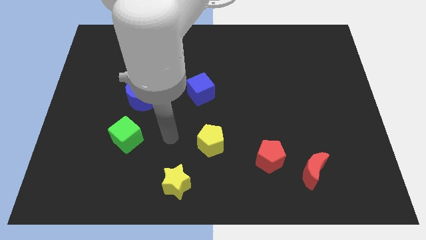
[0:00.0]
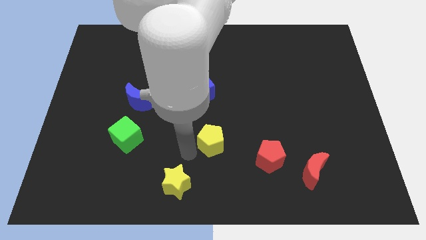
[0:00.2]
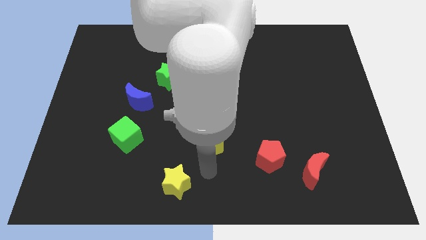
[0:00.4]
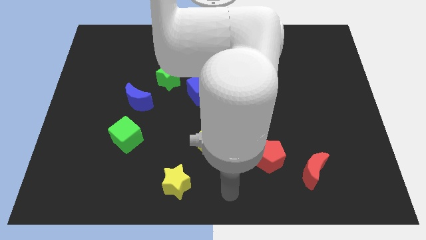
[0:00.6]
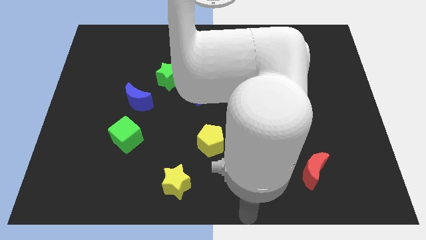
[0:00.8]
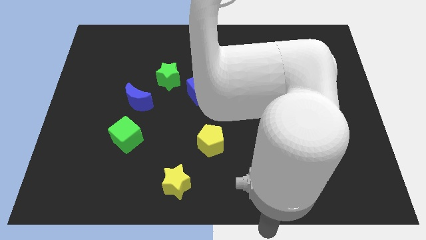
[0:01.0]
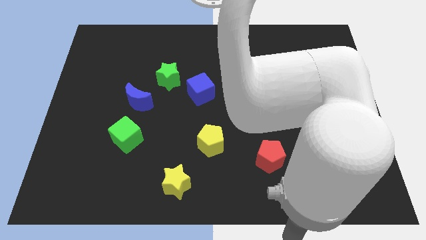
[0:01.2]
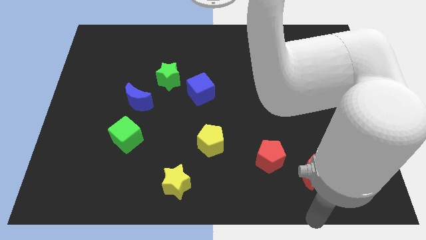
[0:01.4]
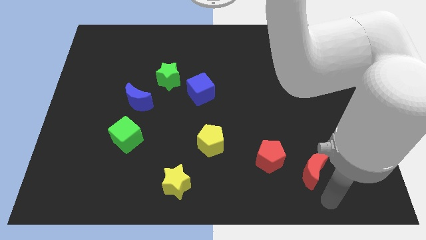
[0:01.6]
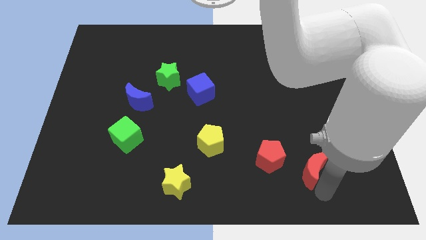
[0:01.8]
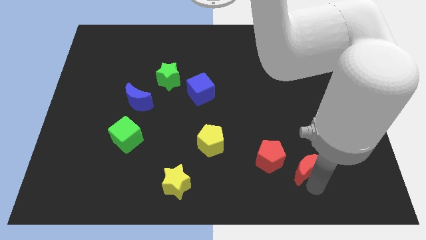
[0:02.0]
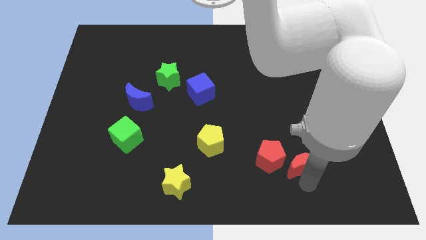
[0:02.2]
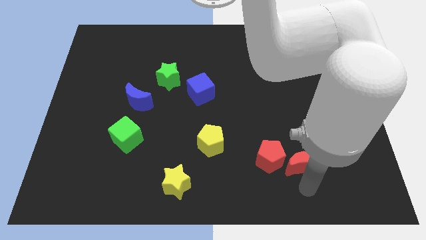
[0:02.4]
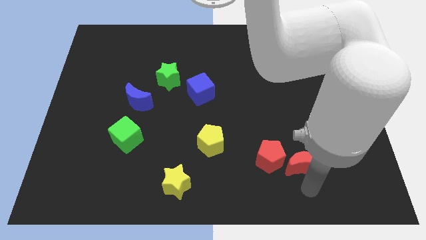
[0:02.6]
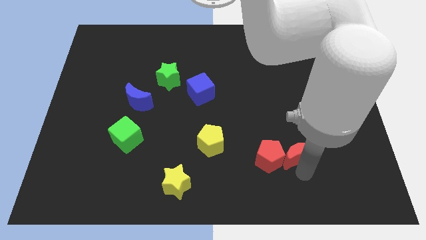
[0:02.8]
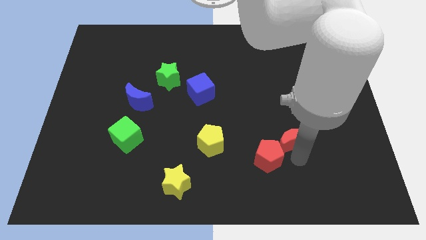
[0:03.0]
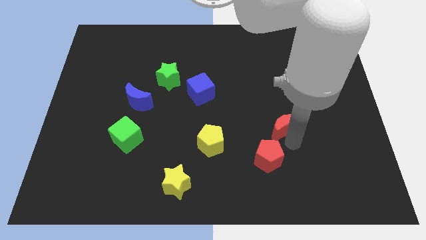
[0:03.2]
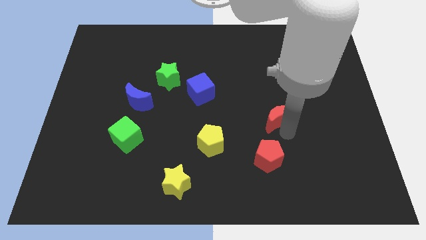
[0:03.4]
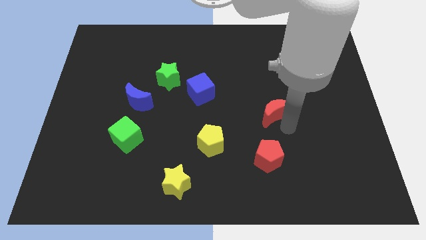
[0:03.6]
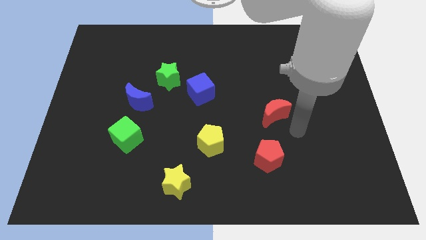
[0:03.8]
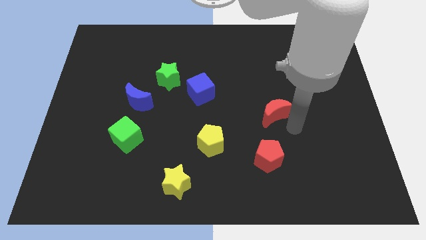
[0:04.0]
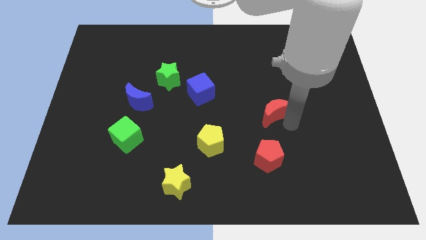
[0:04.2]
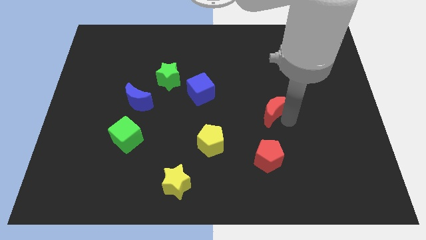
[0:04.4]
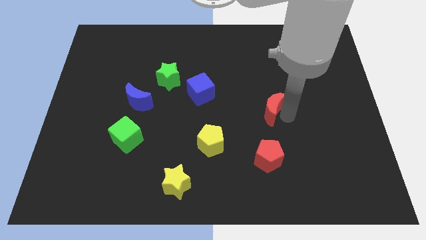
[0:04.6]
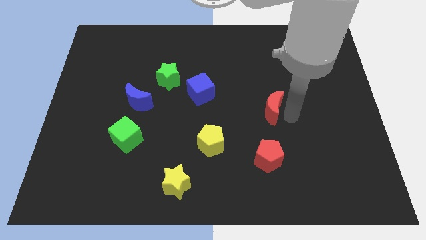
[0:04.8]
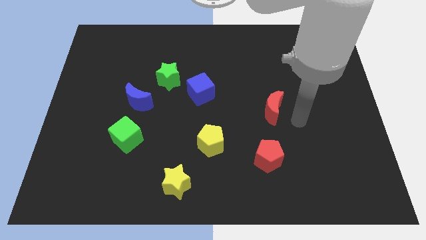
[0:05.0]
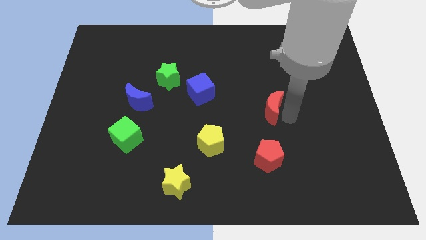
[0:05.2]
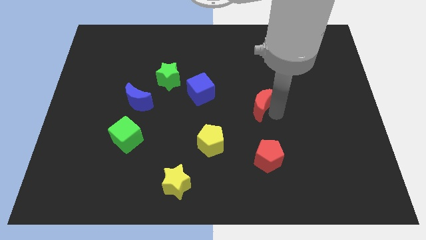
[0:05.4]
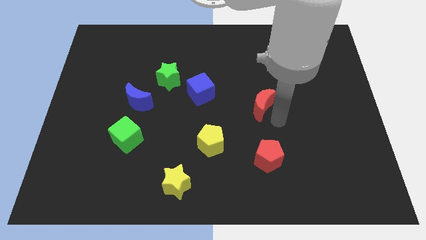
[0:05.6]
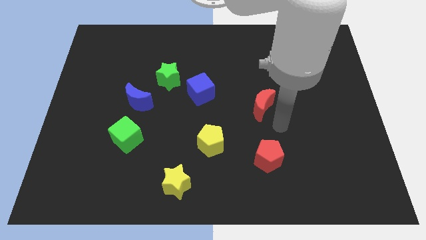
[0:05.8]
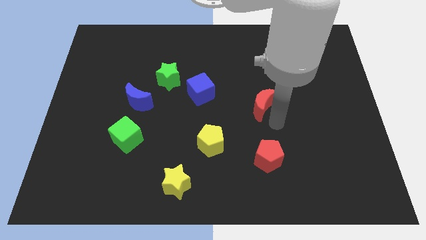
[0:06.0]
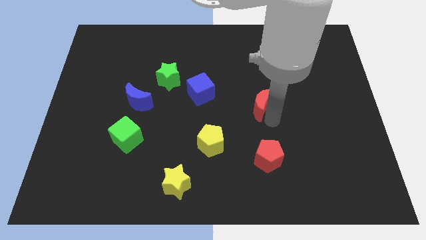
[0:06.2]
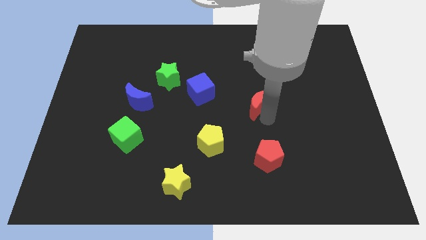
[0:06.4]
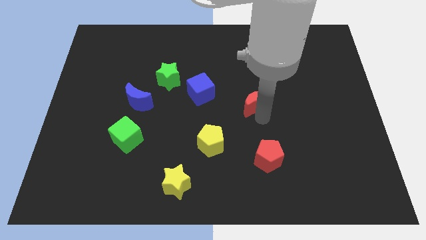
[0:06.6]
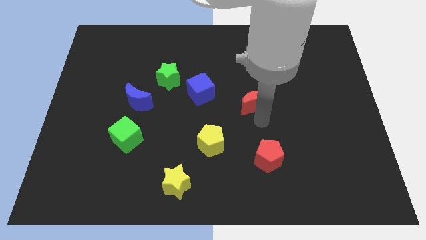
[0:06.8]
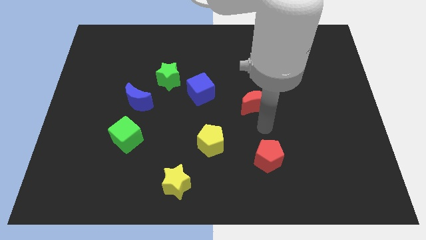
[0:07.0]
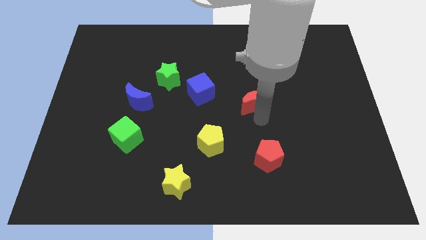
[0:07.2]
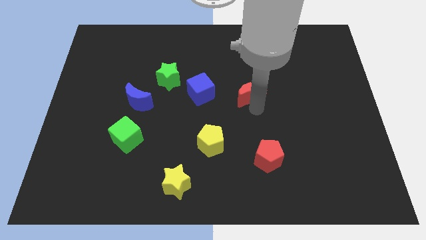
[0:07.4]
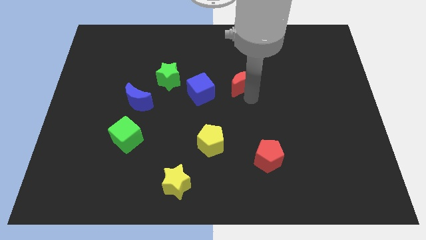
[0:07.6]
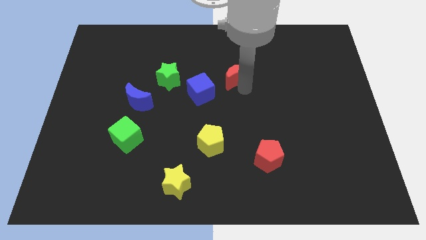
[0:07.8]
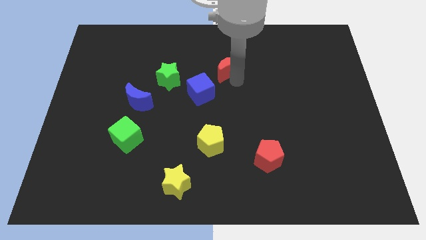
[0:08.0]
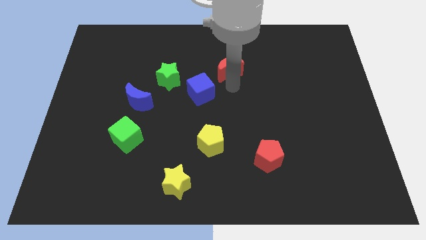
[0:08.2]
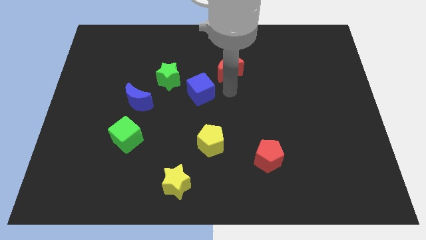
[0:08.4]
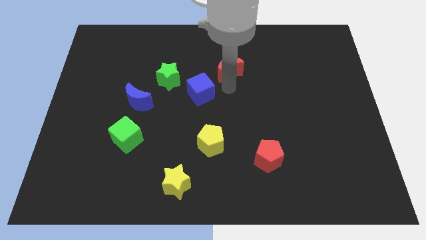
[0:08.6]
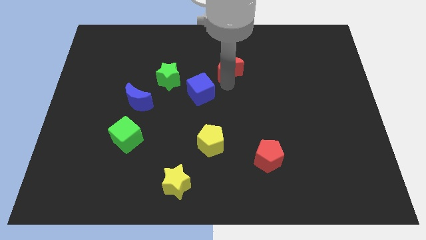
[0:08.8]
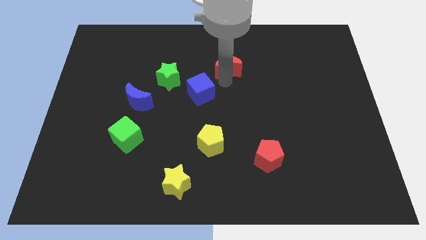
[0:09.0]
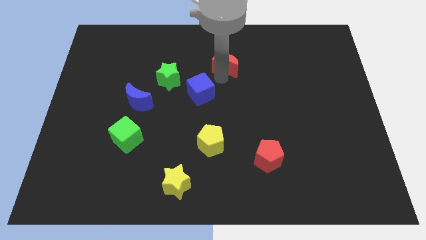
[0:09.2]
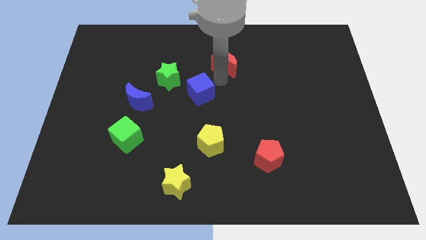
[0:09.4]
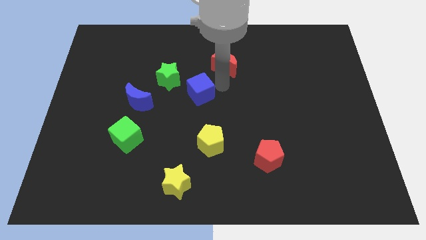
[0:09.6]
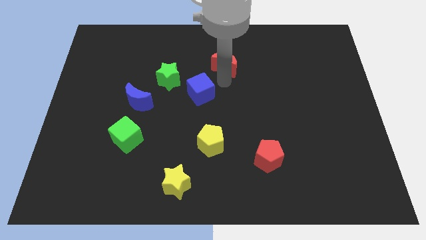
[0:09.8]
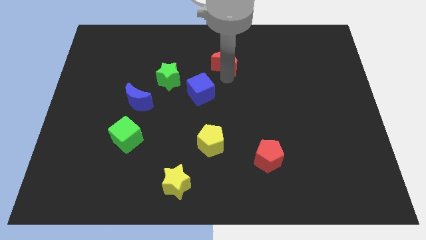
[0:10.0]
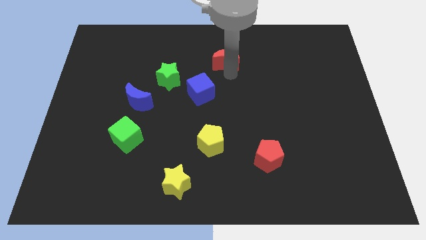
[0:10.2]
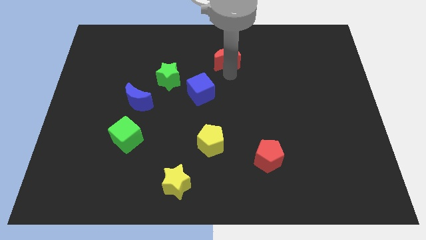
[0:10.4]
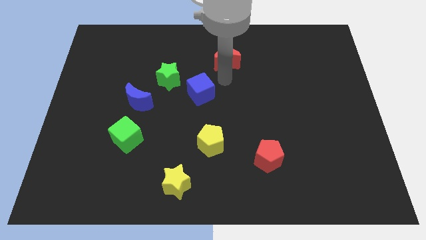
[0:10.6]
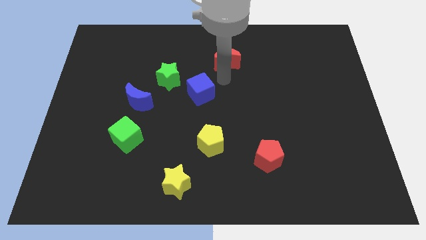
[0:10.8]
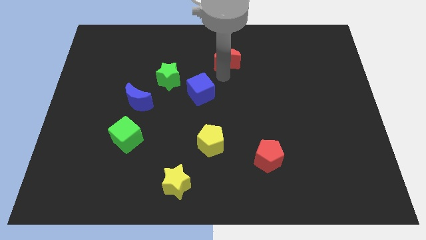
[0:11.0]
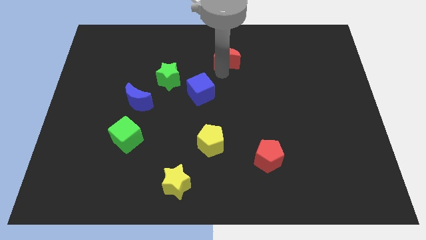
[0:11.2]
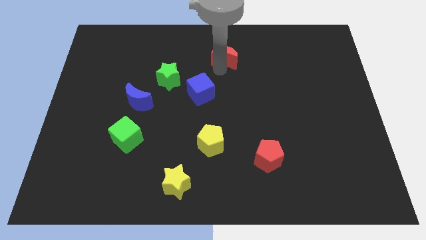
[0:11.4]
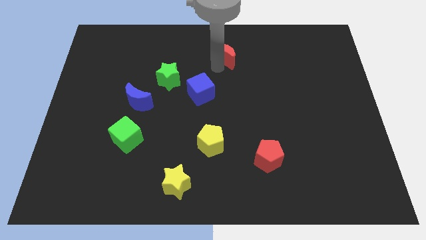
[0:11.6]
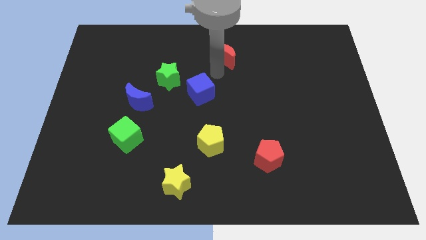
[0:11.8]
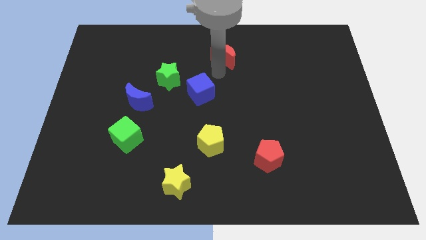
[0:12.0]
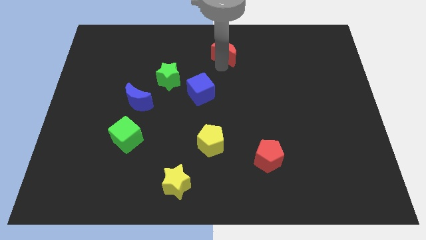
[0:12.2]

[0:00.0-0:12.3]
put the red moon to the towards your base
